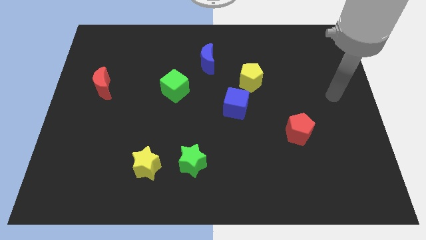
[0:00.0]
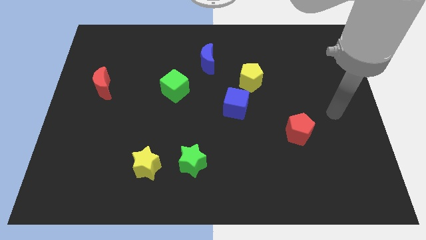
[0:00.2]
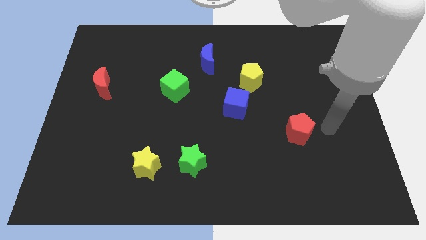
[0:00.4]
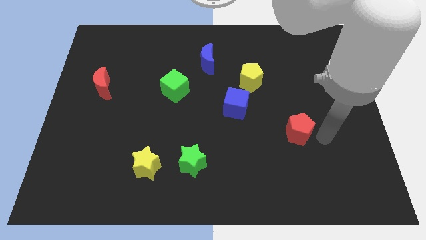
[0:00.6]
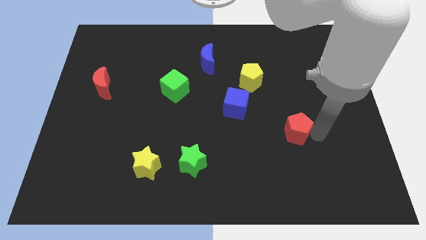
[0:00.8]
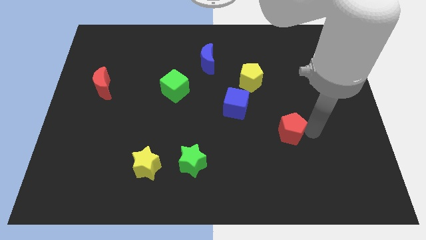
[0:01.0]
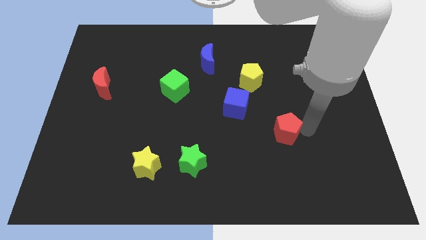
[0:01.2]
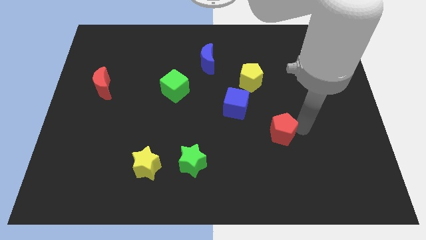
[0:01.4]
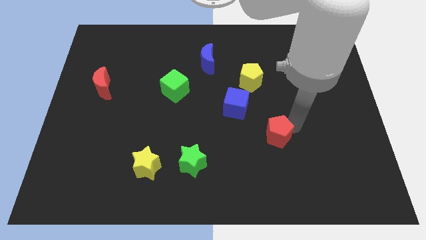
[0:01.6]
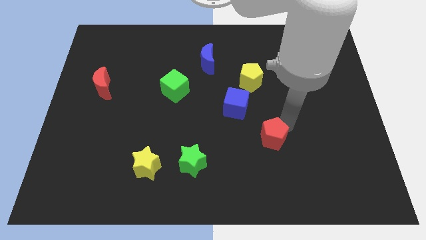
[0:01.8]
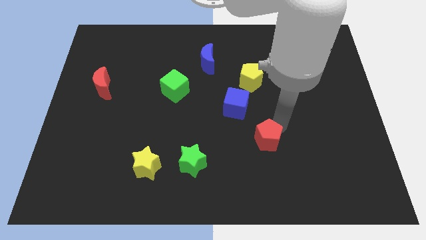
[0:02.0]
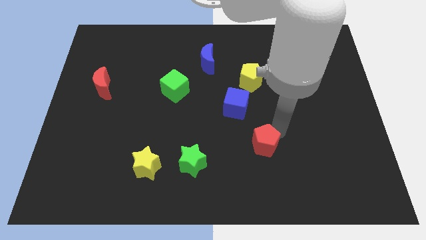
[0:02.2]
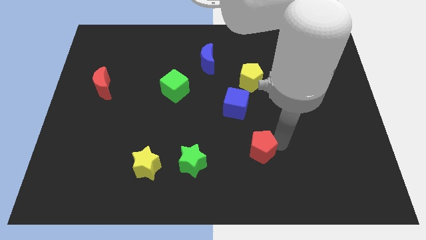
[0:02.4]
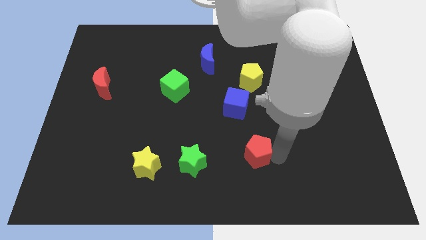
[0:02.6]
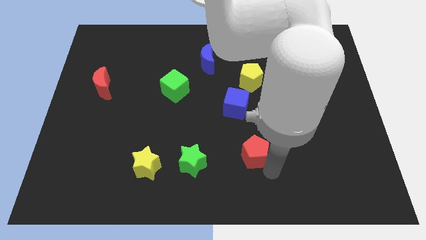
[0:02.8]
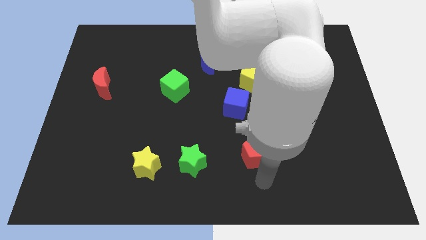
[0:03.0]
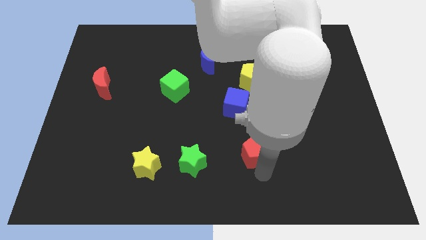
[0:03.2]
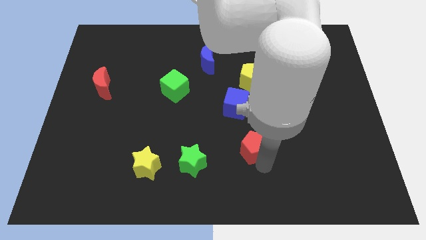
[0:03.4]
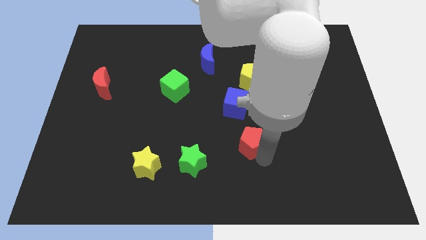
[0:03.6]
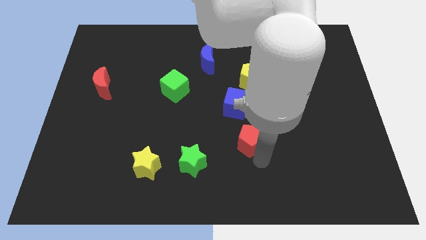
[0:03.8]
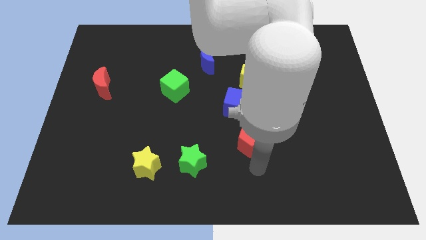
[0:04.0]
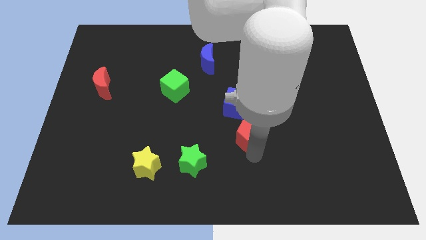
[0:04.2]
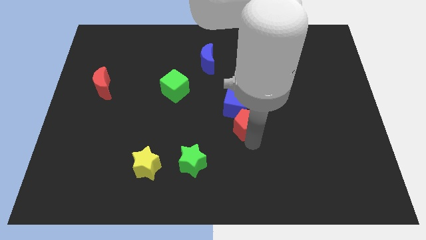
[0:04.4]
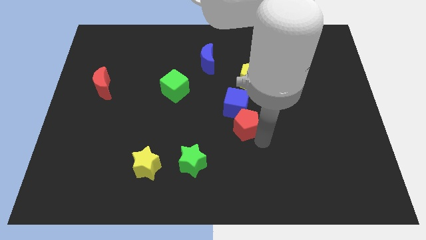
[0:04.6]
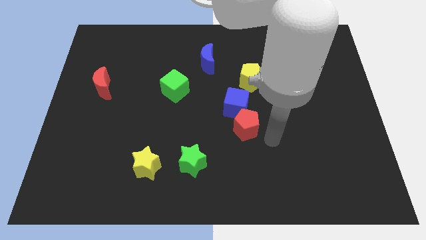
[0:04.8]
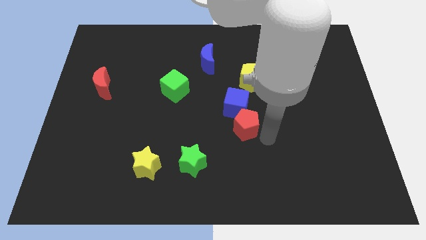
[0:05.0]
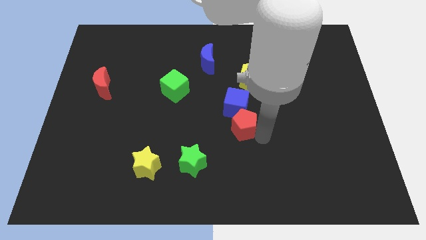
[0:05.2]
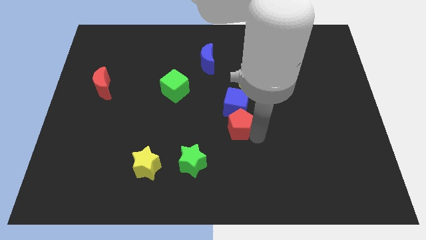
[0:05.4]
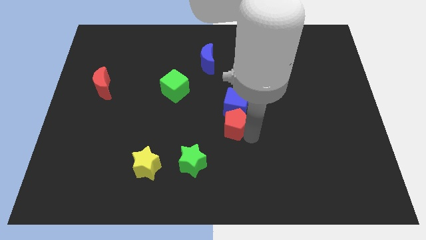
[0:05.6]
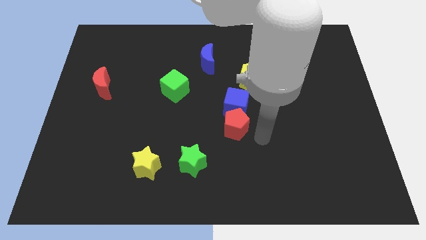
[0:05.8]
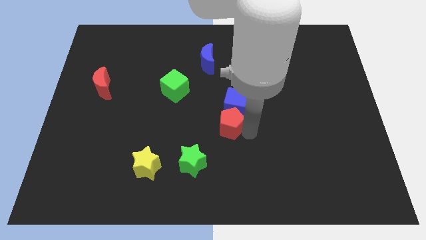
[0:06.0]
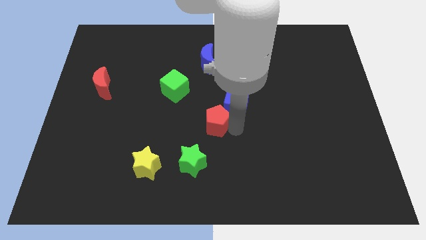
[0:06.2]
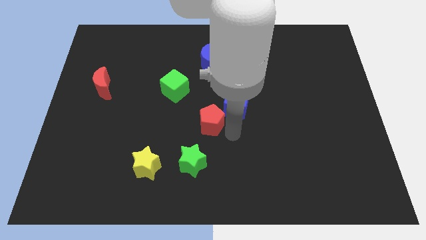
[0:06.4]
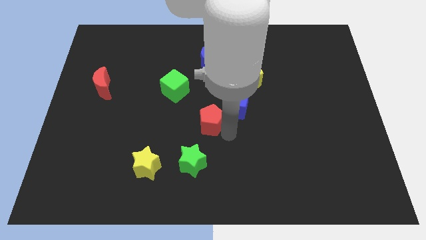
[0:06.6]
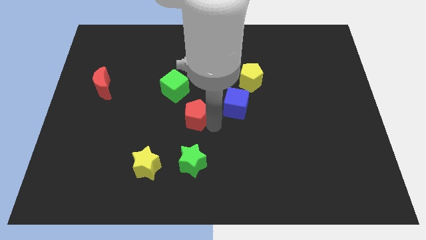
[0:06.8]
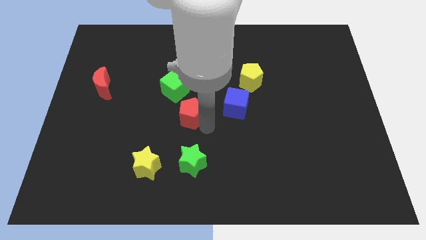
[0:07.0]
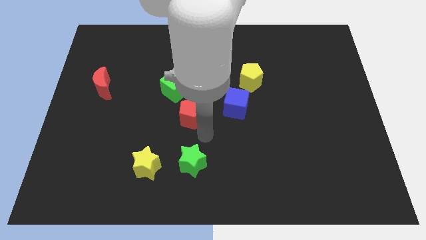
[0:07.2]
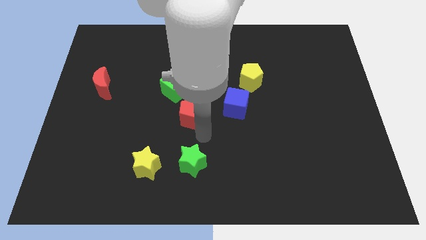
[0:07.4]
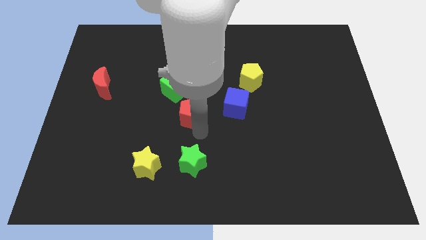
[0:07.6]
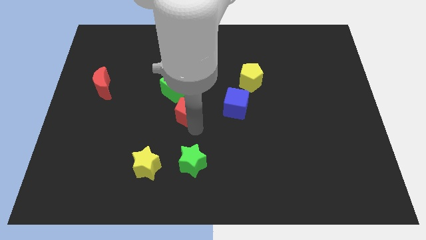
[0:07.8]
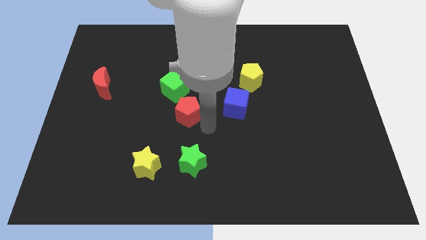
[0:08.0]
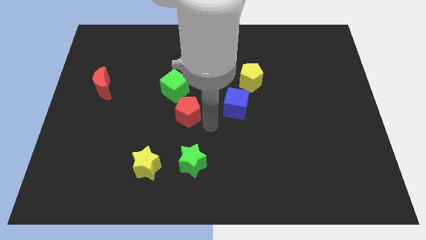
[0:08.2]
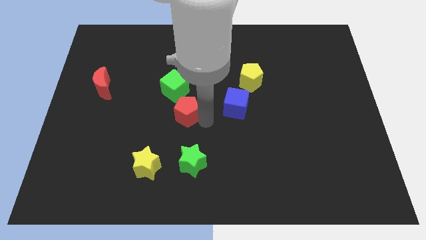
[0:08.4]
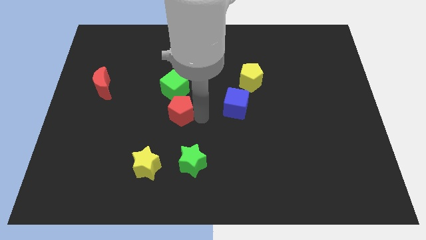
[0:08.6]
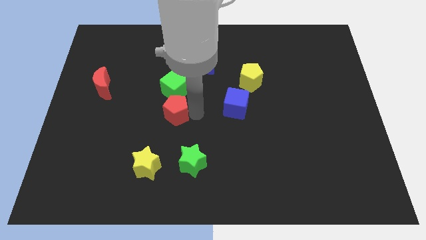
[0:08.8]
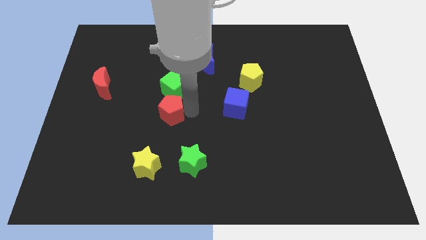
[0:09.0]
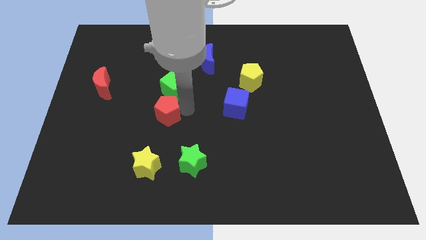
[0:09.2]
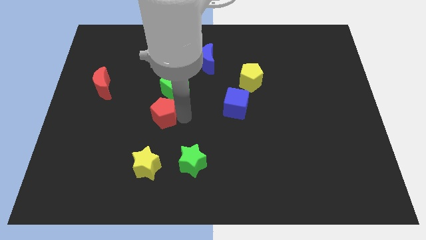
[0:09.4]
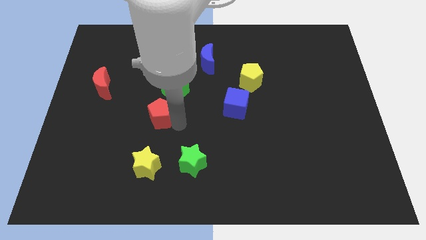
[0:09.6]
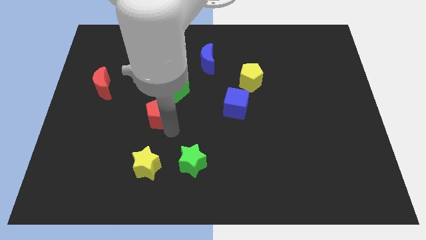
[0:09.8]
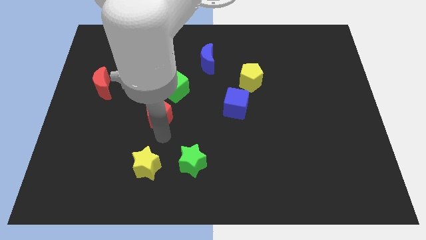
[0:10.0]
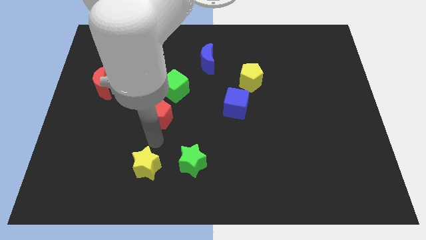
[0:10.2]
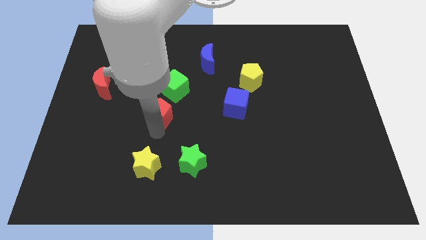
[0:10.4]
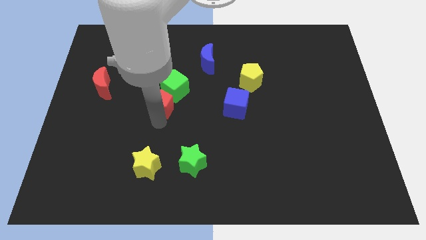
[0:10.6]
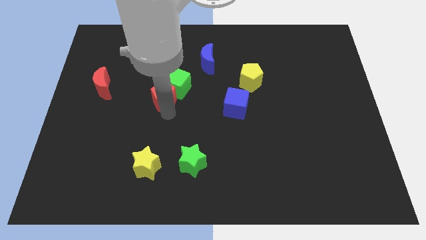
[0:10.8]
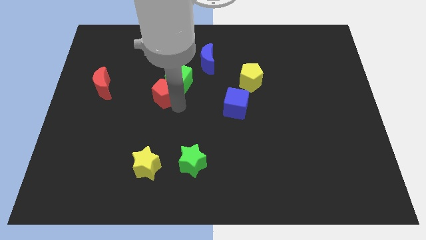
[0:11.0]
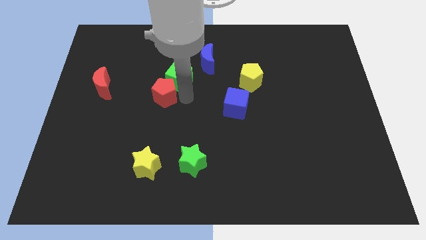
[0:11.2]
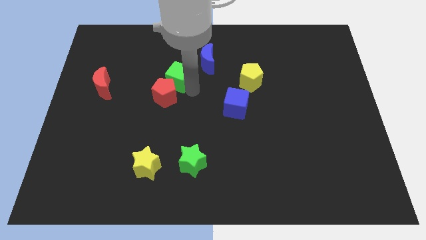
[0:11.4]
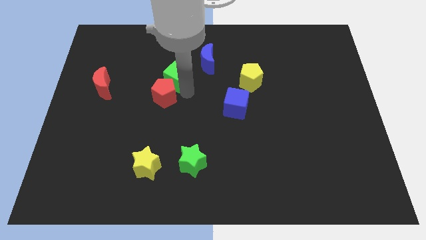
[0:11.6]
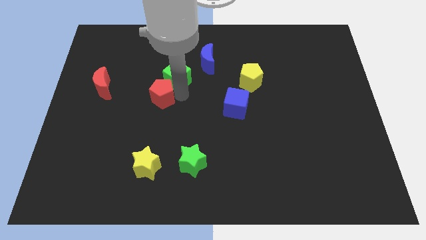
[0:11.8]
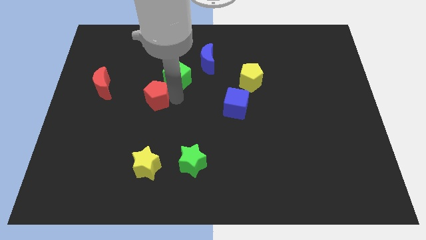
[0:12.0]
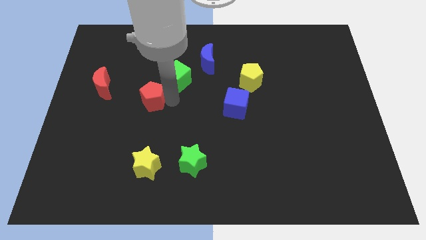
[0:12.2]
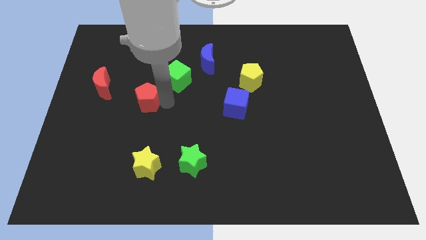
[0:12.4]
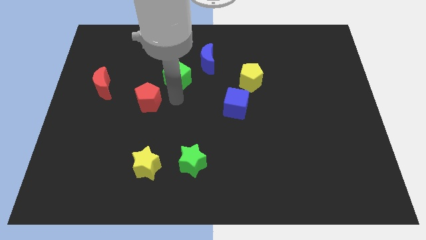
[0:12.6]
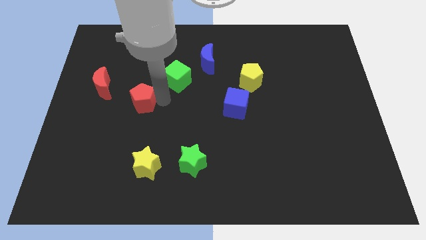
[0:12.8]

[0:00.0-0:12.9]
move the red pentagon to the bottom right of the red moon

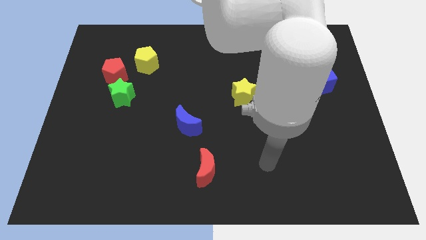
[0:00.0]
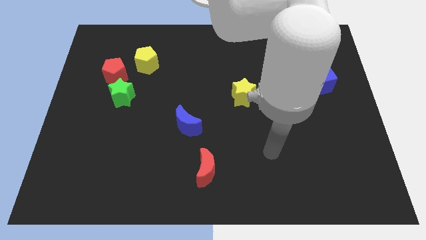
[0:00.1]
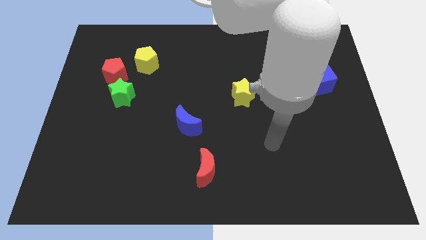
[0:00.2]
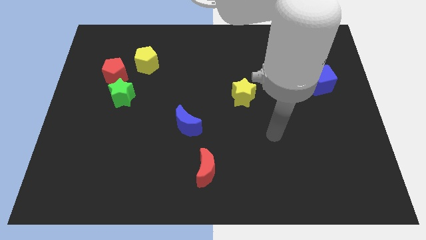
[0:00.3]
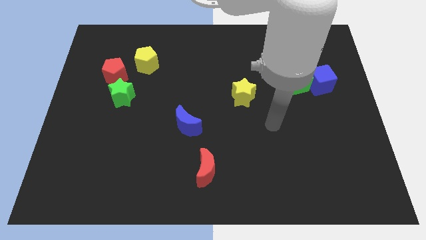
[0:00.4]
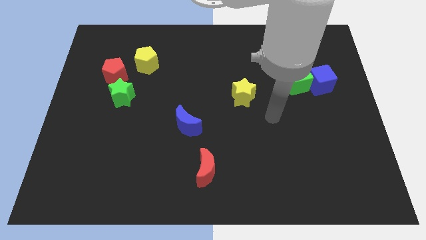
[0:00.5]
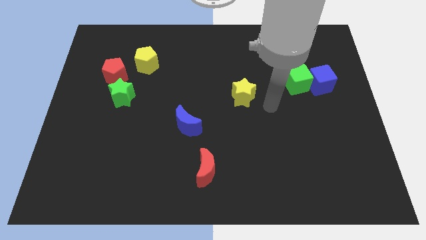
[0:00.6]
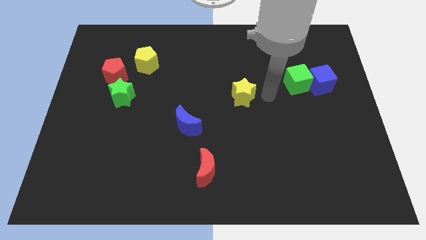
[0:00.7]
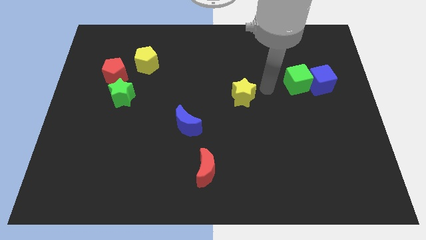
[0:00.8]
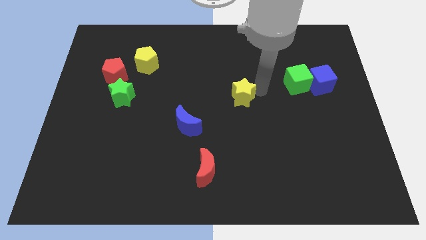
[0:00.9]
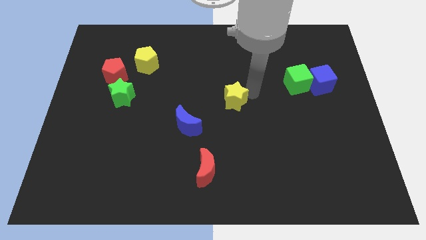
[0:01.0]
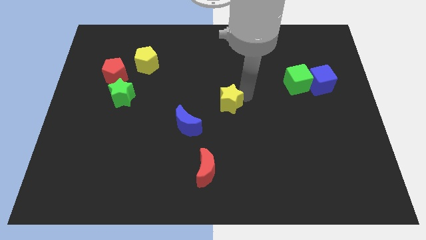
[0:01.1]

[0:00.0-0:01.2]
put the yellow star diagonally up and to the right of the blue moon
